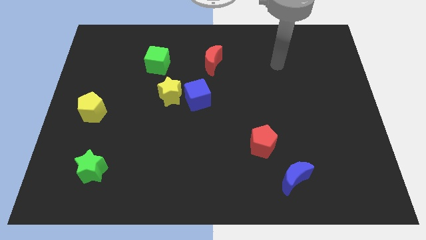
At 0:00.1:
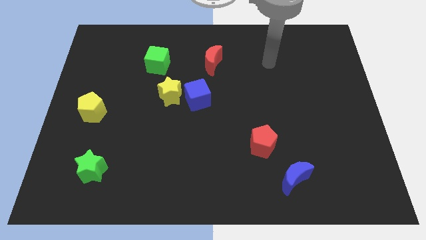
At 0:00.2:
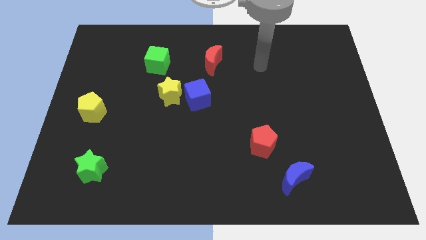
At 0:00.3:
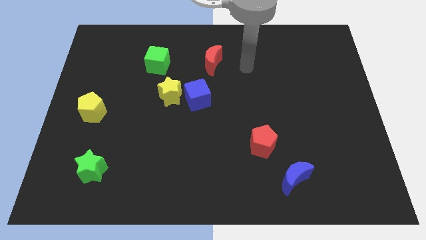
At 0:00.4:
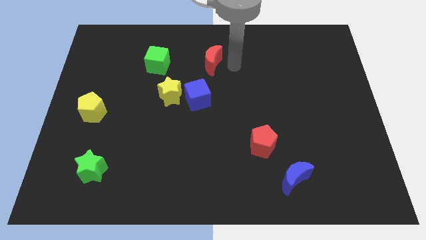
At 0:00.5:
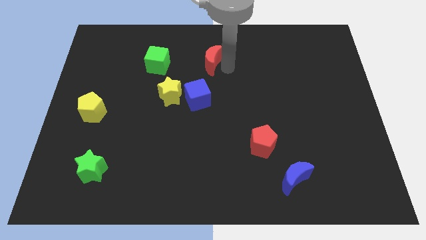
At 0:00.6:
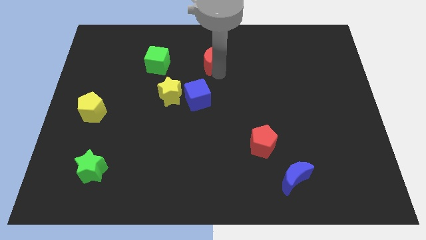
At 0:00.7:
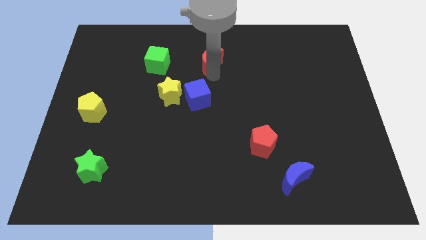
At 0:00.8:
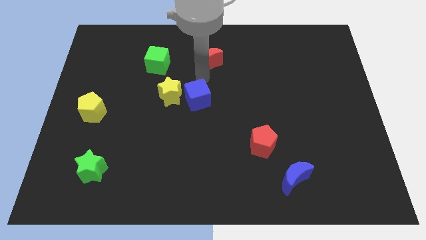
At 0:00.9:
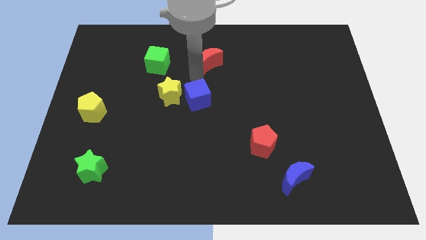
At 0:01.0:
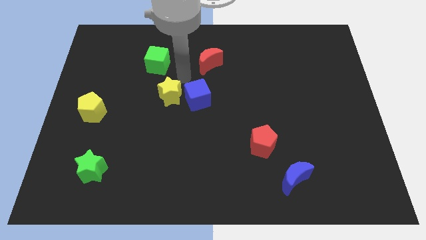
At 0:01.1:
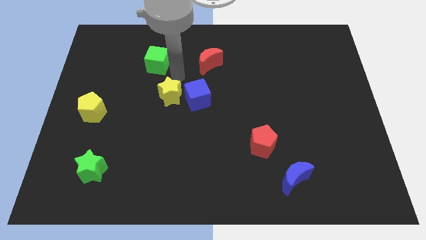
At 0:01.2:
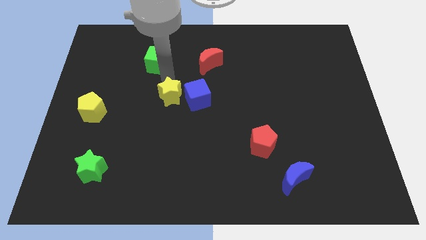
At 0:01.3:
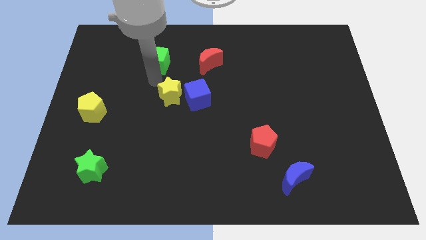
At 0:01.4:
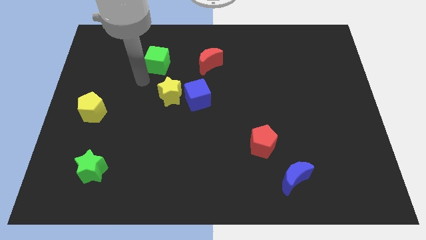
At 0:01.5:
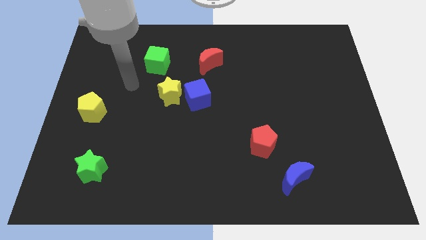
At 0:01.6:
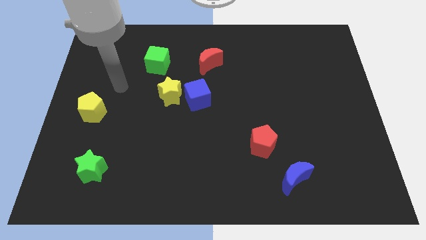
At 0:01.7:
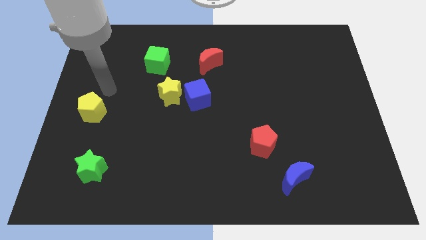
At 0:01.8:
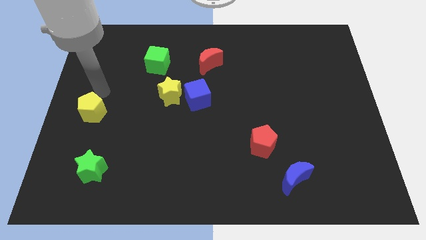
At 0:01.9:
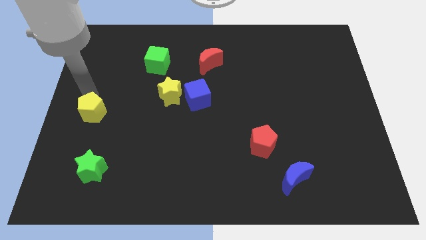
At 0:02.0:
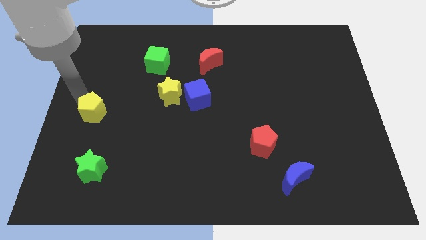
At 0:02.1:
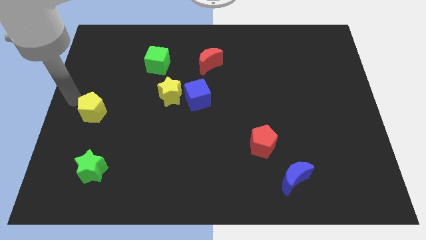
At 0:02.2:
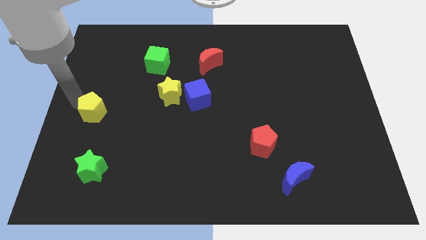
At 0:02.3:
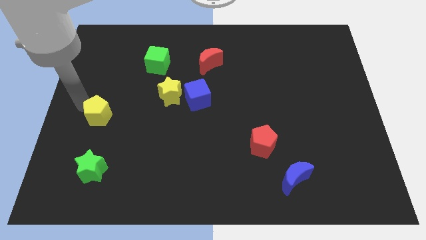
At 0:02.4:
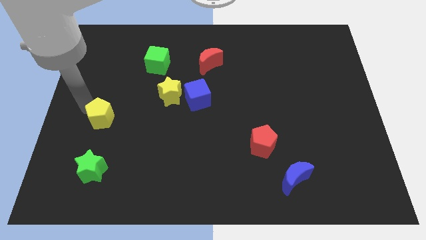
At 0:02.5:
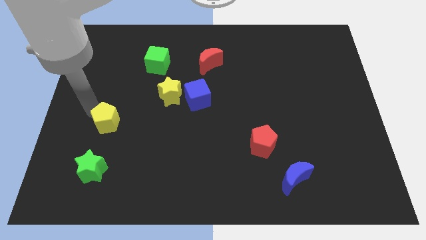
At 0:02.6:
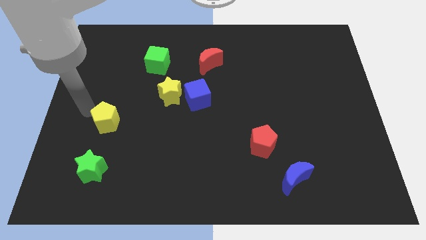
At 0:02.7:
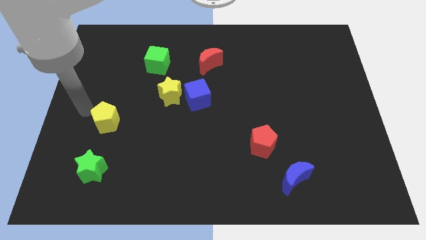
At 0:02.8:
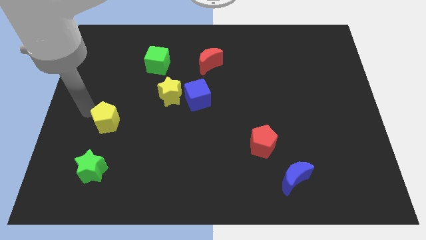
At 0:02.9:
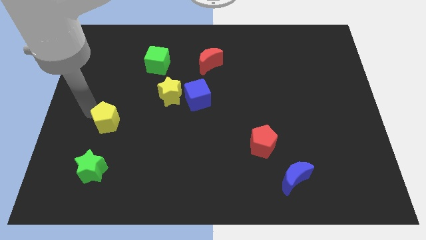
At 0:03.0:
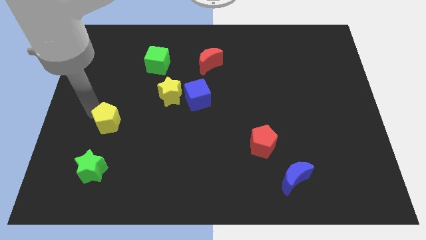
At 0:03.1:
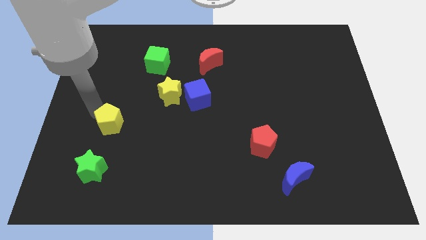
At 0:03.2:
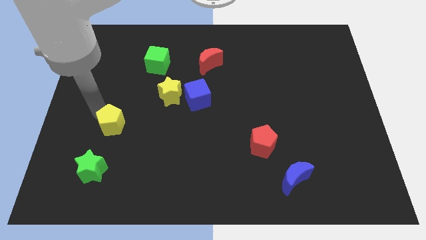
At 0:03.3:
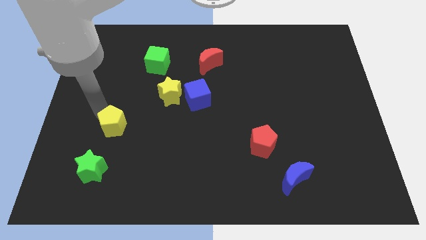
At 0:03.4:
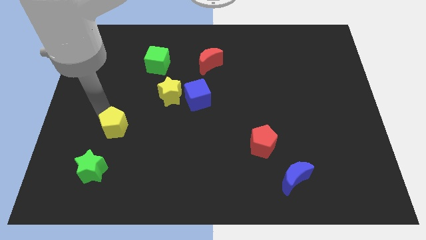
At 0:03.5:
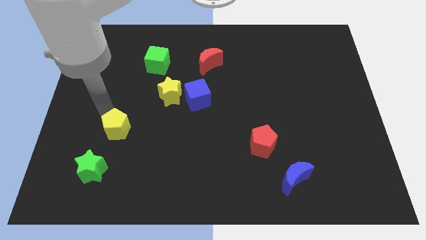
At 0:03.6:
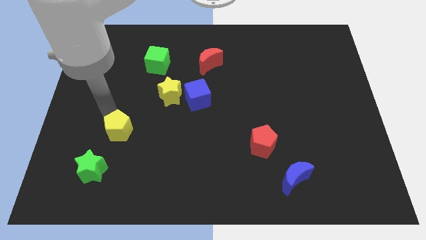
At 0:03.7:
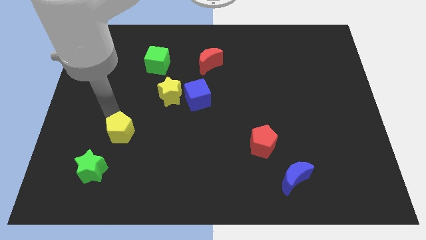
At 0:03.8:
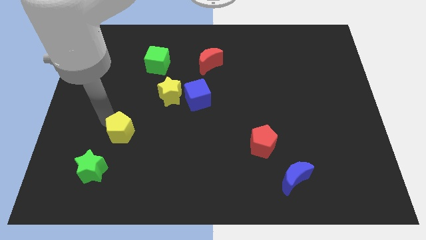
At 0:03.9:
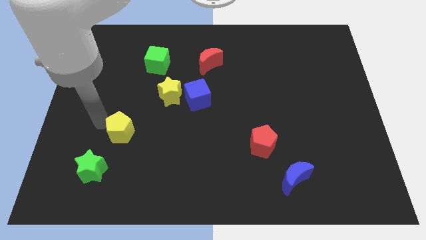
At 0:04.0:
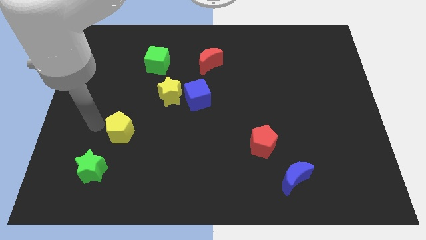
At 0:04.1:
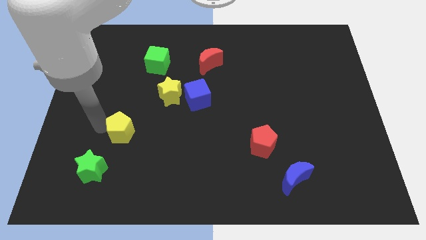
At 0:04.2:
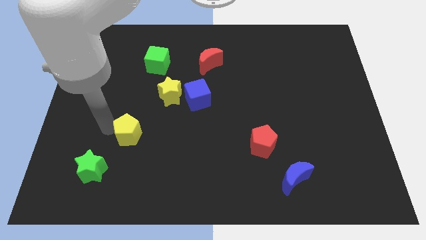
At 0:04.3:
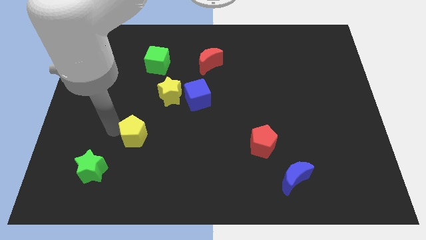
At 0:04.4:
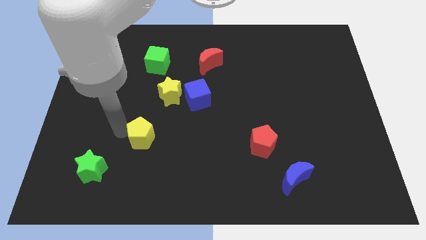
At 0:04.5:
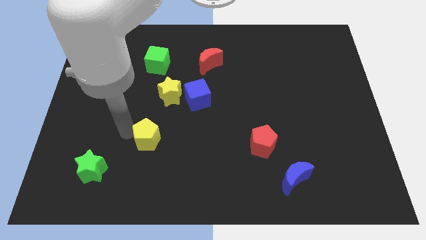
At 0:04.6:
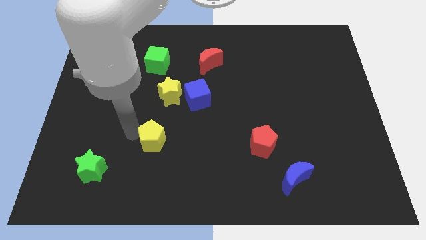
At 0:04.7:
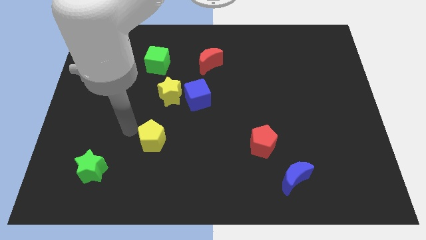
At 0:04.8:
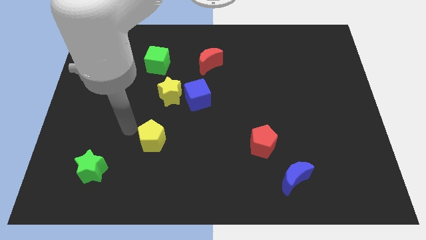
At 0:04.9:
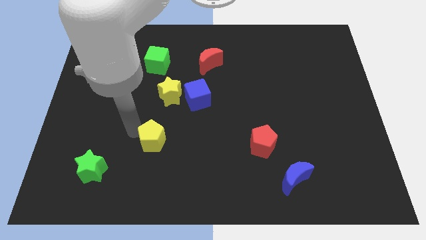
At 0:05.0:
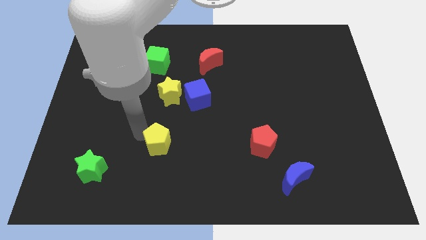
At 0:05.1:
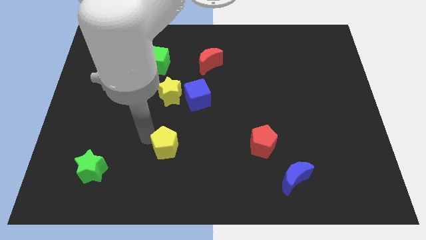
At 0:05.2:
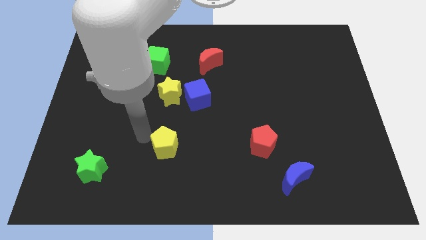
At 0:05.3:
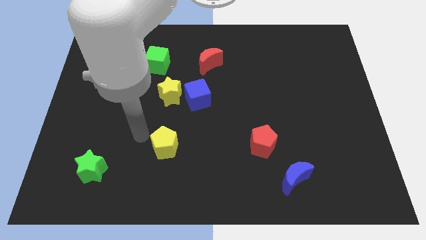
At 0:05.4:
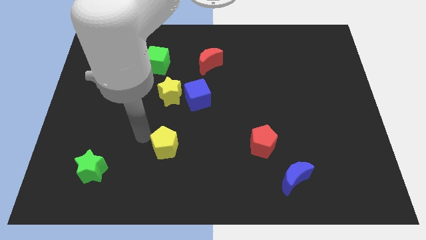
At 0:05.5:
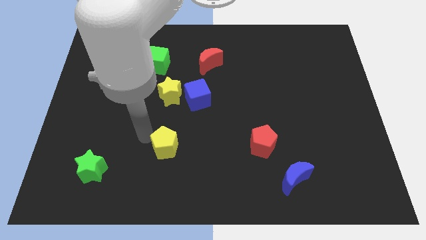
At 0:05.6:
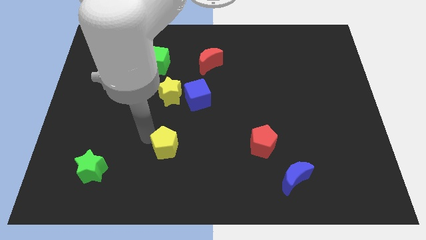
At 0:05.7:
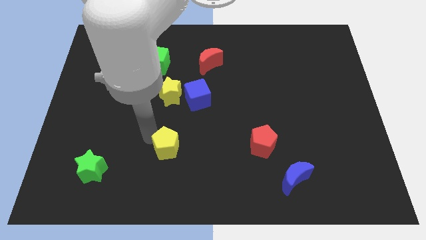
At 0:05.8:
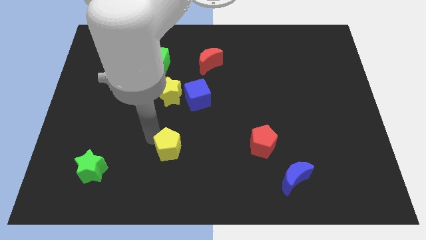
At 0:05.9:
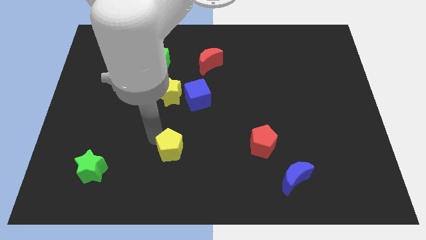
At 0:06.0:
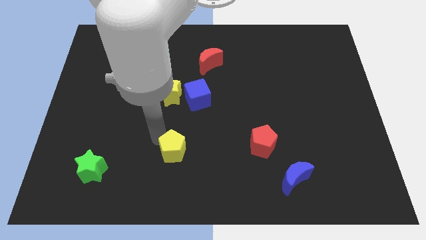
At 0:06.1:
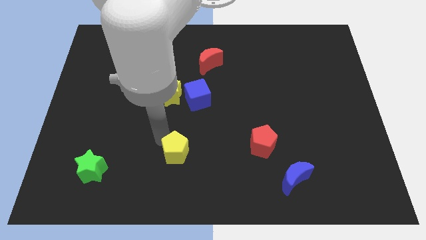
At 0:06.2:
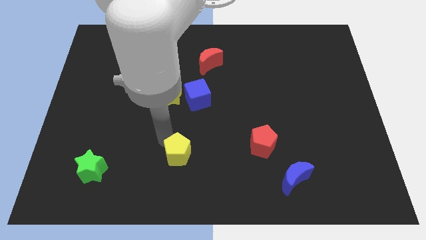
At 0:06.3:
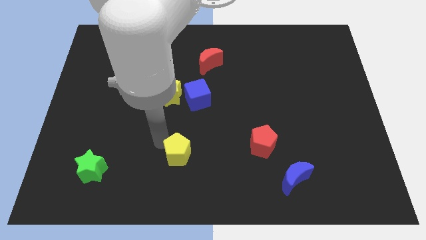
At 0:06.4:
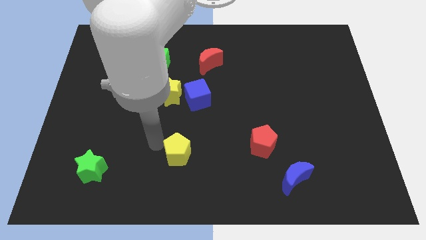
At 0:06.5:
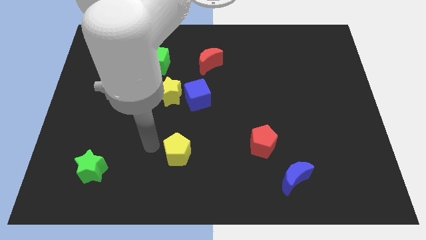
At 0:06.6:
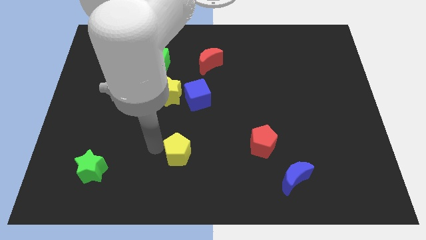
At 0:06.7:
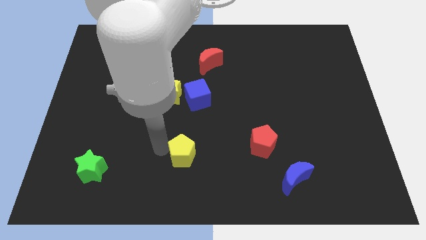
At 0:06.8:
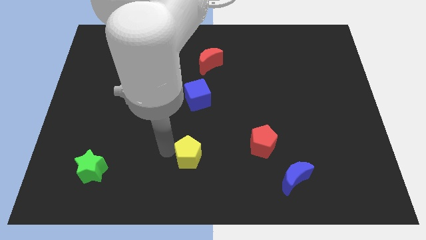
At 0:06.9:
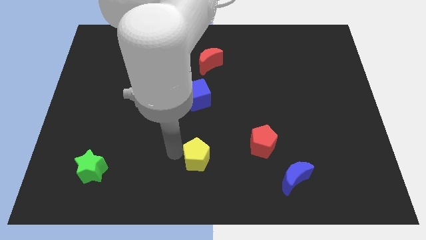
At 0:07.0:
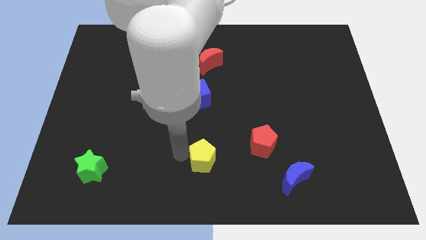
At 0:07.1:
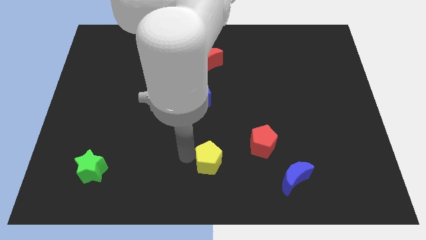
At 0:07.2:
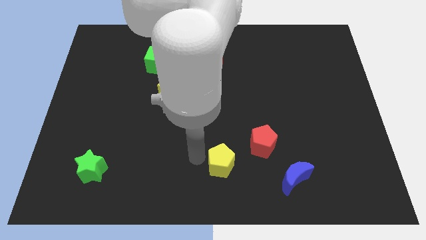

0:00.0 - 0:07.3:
put the yellow pentagon to the left of the blue moon

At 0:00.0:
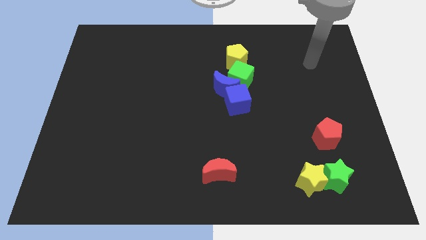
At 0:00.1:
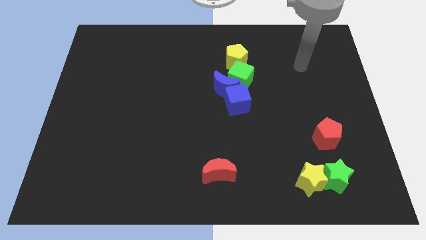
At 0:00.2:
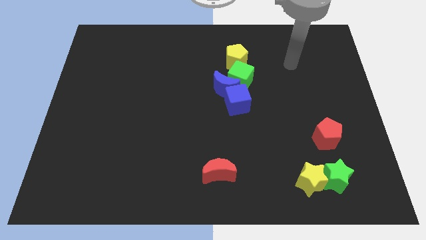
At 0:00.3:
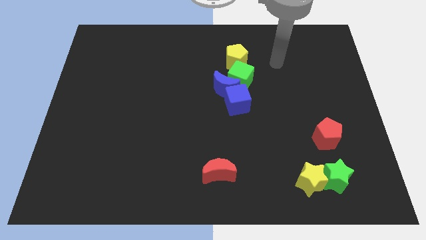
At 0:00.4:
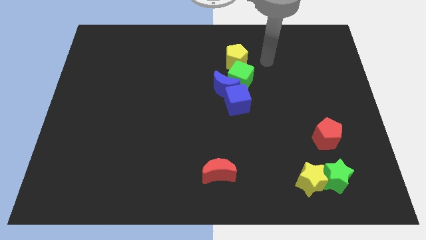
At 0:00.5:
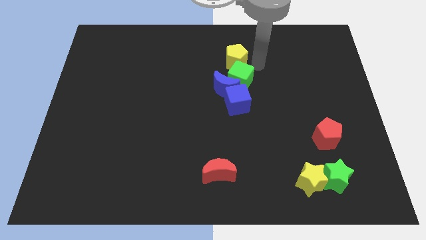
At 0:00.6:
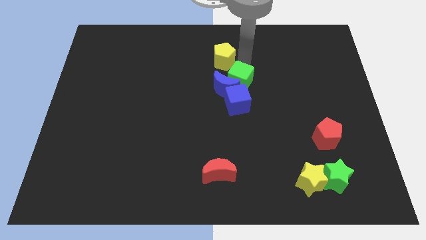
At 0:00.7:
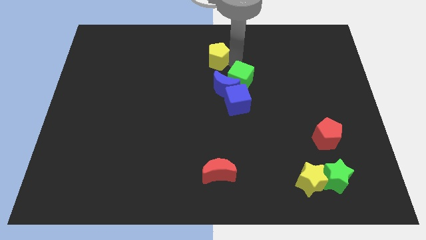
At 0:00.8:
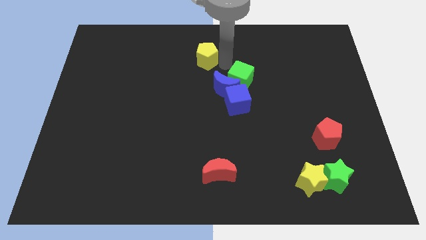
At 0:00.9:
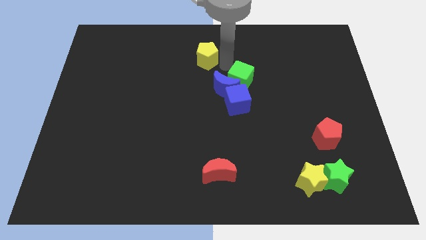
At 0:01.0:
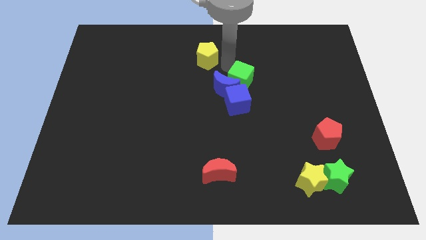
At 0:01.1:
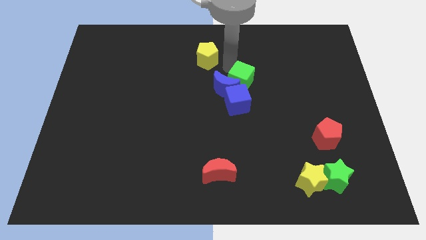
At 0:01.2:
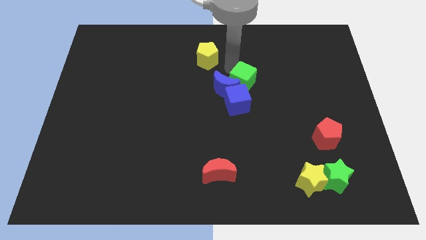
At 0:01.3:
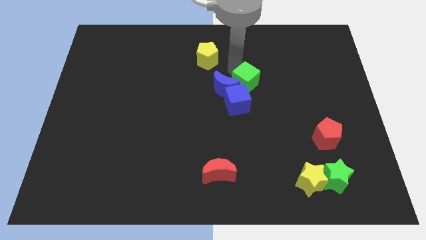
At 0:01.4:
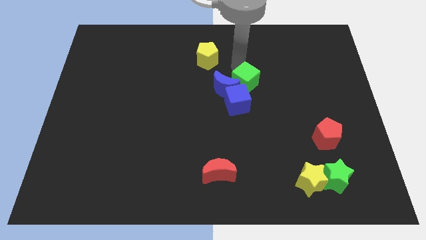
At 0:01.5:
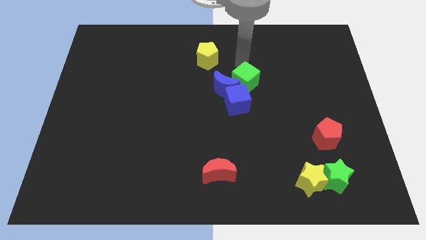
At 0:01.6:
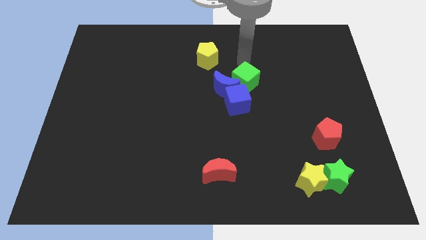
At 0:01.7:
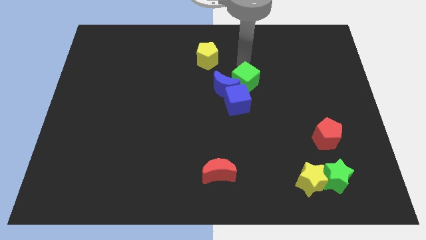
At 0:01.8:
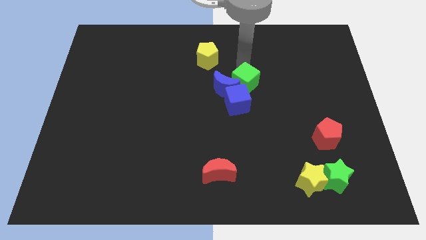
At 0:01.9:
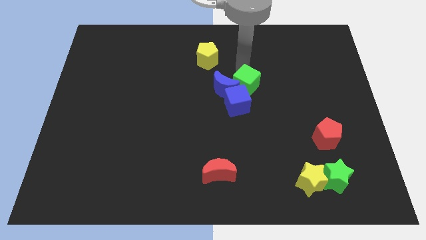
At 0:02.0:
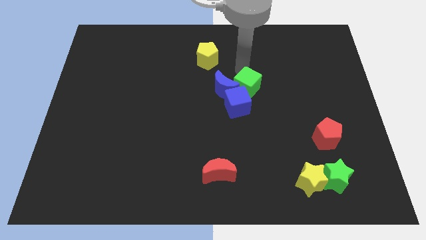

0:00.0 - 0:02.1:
put the green cube to the bottom right of the blue moon
